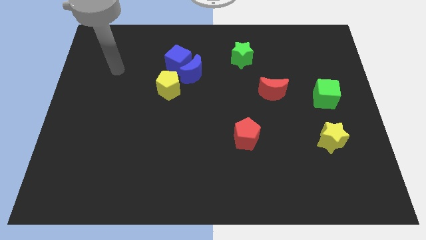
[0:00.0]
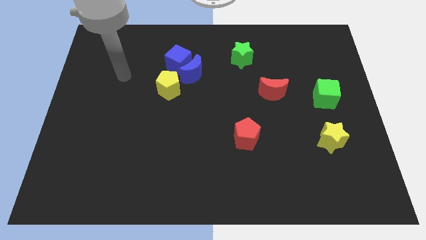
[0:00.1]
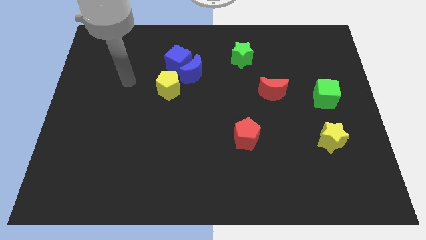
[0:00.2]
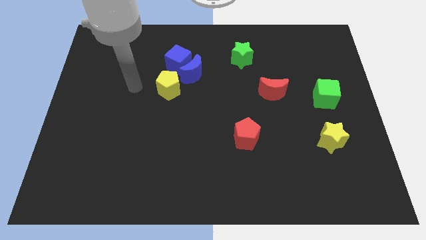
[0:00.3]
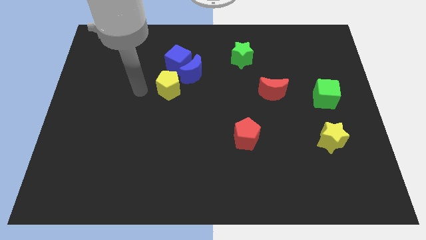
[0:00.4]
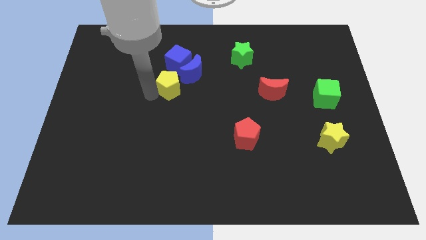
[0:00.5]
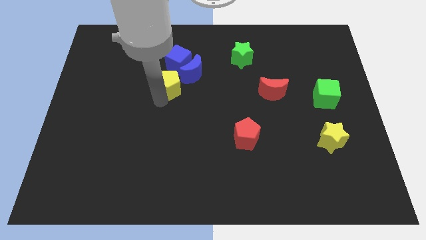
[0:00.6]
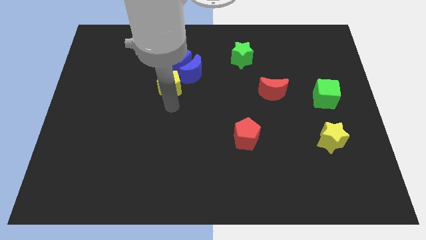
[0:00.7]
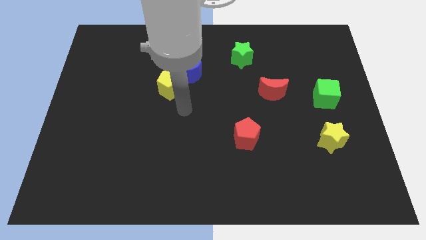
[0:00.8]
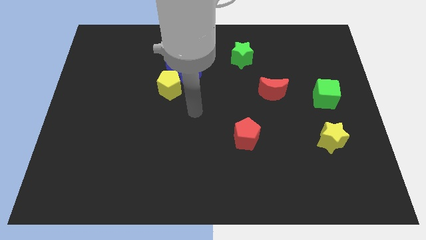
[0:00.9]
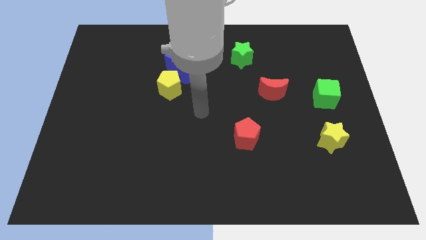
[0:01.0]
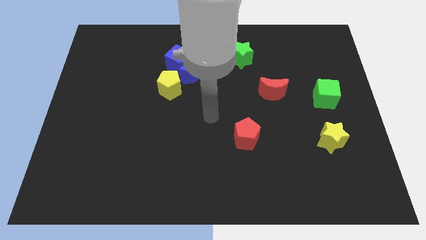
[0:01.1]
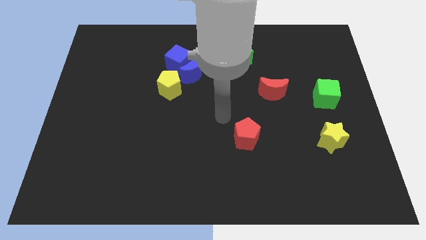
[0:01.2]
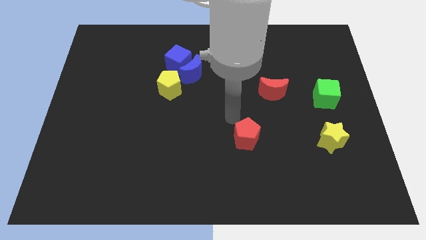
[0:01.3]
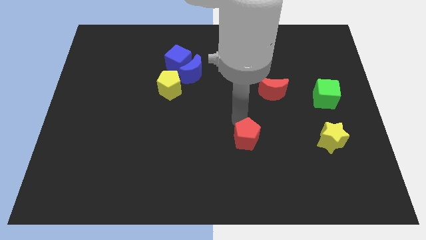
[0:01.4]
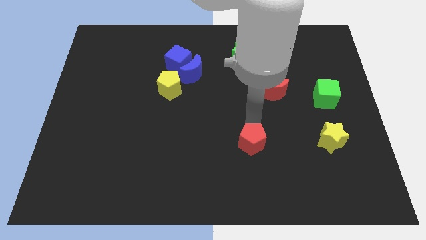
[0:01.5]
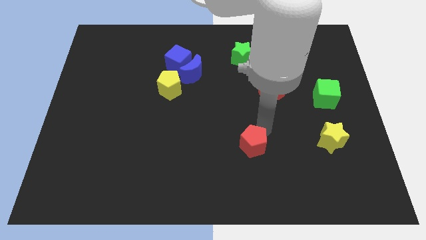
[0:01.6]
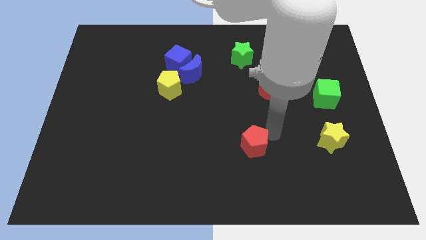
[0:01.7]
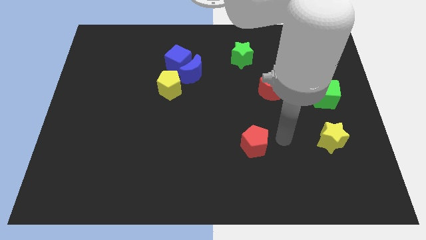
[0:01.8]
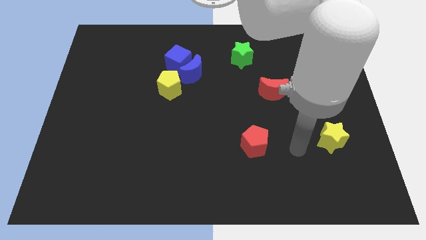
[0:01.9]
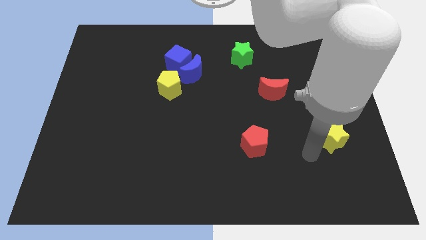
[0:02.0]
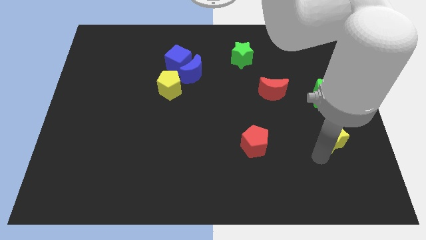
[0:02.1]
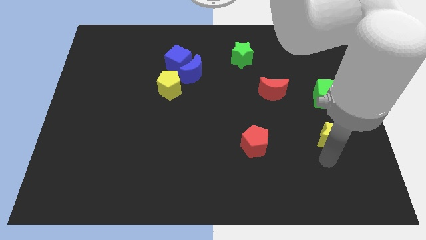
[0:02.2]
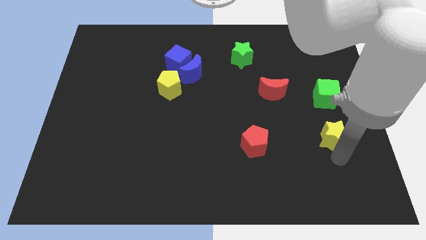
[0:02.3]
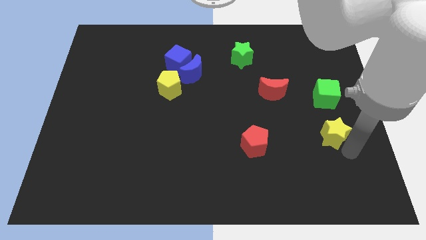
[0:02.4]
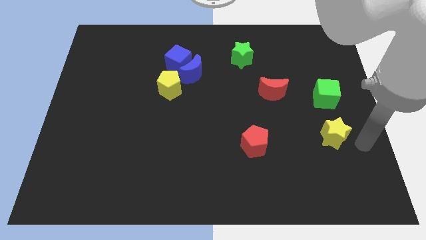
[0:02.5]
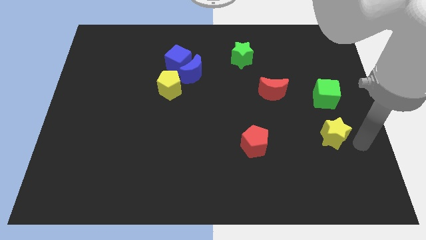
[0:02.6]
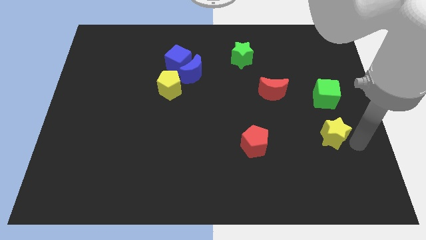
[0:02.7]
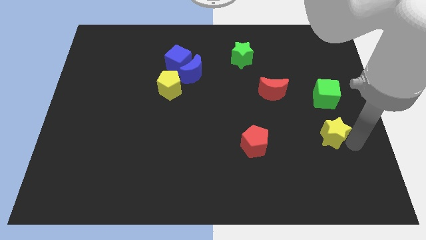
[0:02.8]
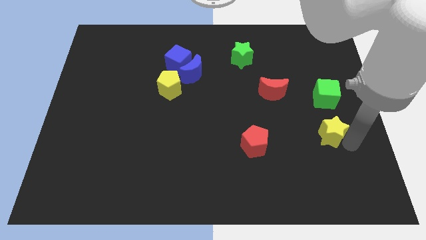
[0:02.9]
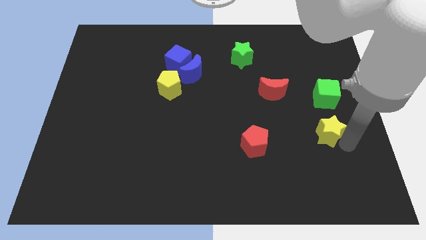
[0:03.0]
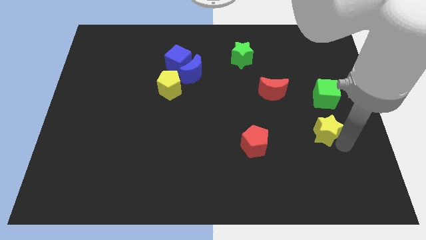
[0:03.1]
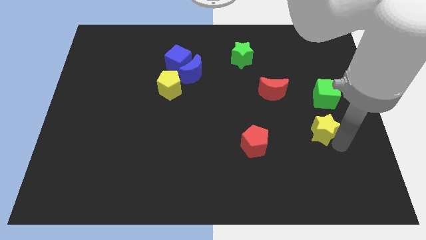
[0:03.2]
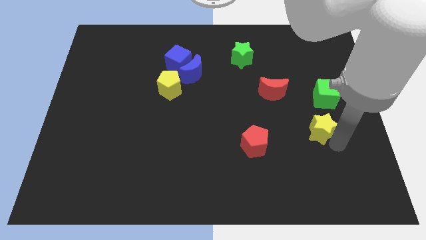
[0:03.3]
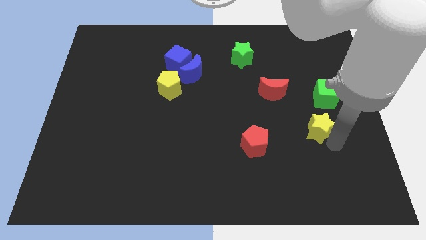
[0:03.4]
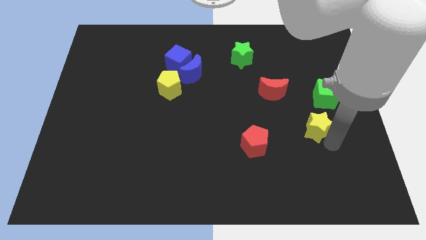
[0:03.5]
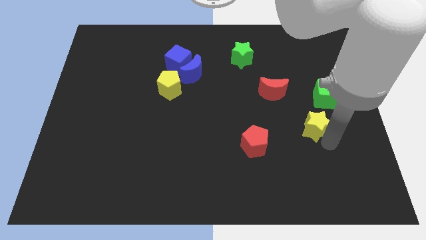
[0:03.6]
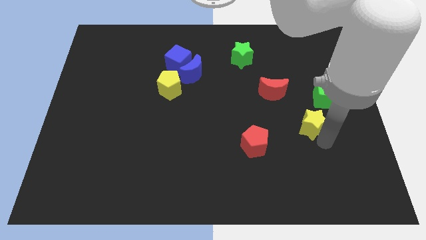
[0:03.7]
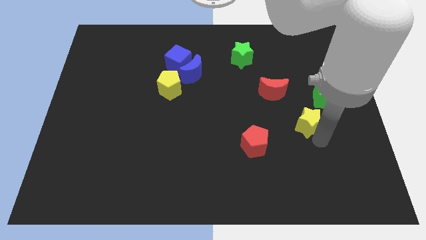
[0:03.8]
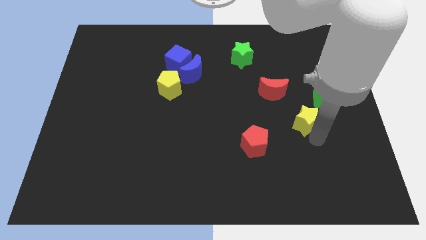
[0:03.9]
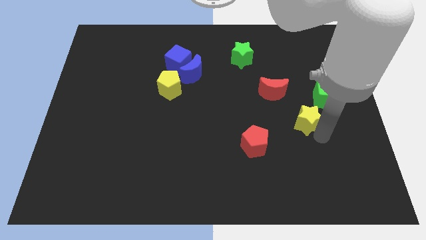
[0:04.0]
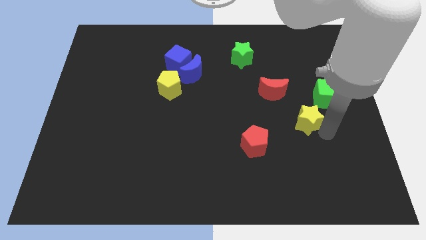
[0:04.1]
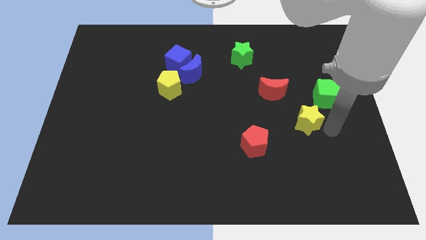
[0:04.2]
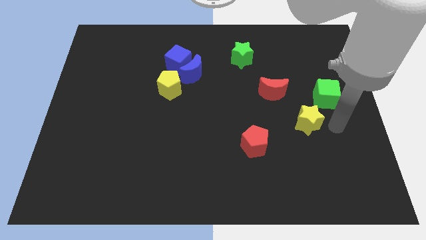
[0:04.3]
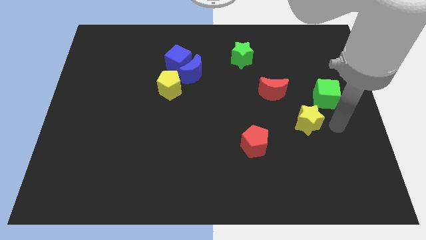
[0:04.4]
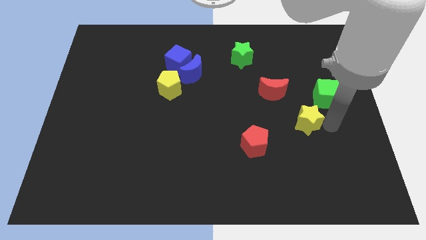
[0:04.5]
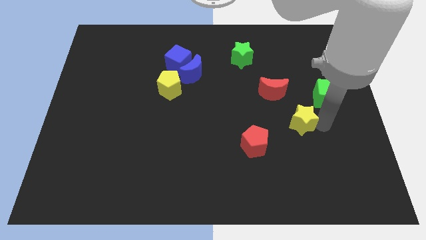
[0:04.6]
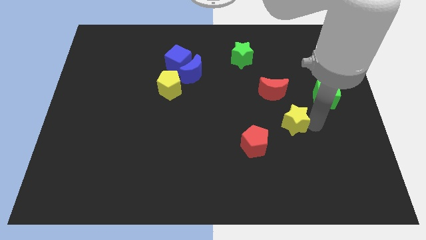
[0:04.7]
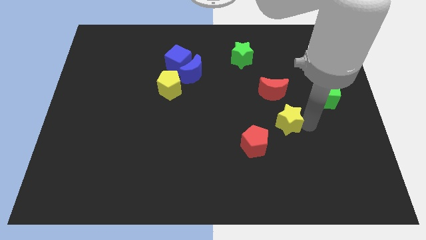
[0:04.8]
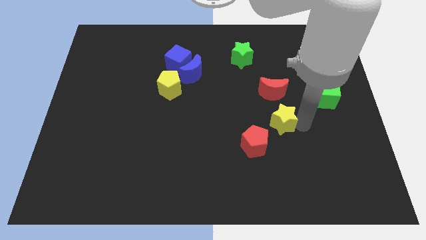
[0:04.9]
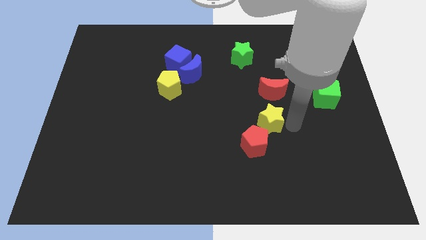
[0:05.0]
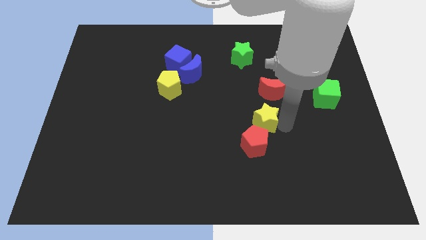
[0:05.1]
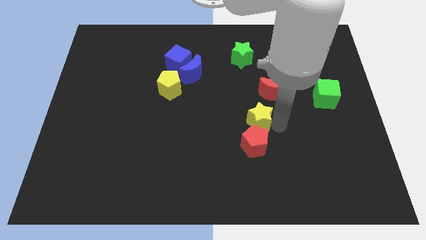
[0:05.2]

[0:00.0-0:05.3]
put the yellow star to the middle

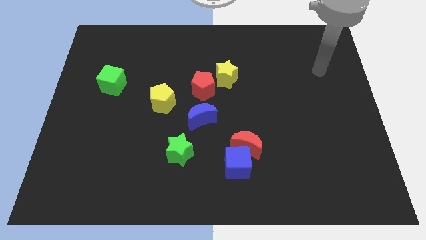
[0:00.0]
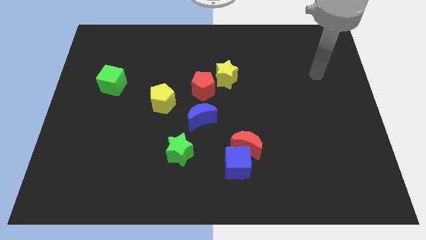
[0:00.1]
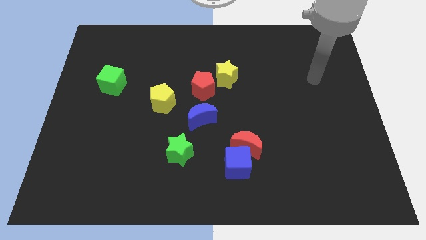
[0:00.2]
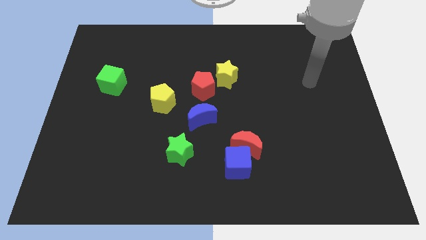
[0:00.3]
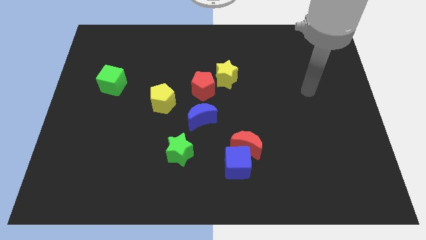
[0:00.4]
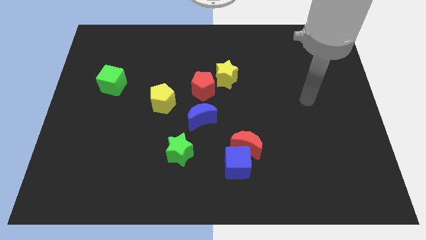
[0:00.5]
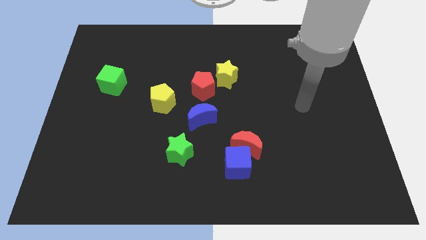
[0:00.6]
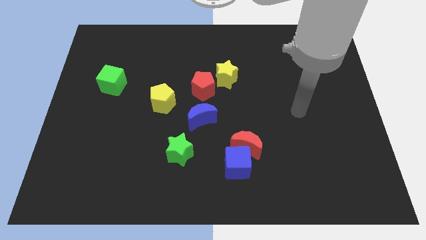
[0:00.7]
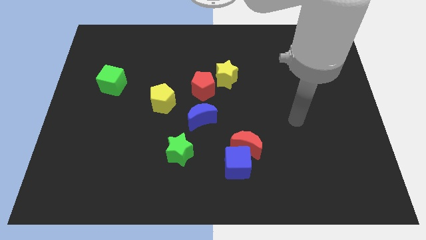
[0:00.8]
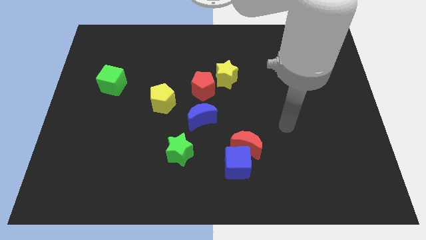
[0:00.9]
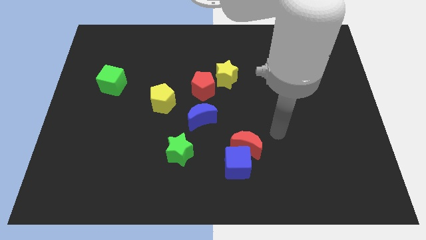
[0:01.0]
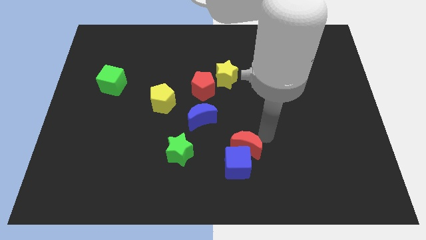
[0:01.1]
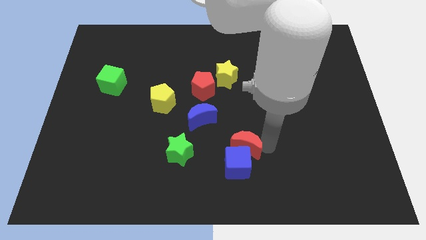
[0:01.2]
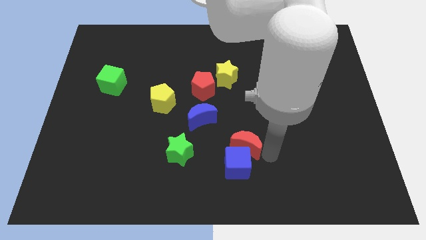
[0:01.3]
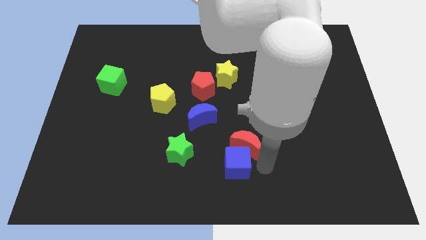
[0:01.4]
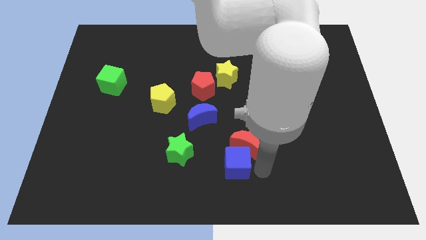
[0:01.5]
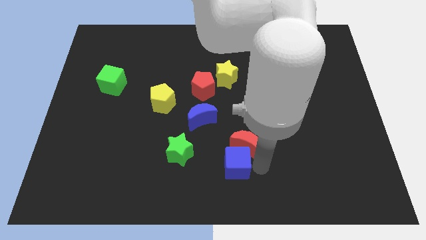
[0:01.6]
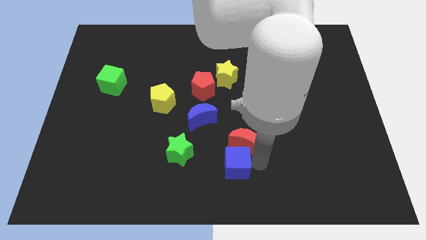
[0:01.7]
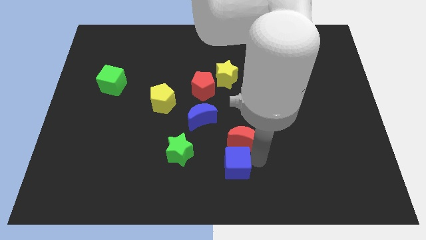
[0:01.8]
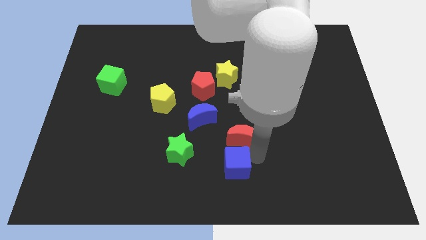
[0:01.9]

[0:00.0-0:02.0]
move the red moon to the middle of the board
